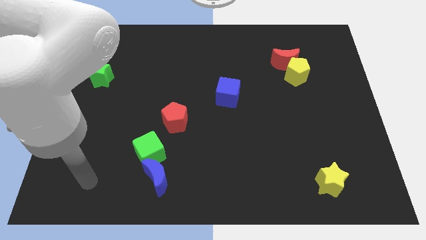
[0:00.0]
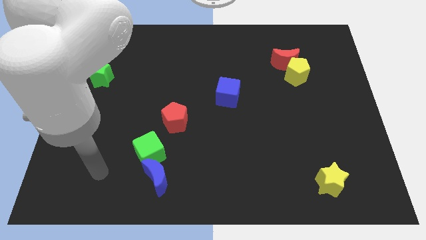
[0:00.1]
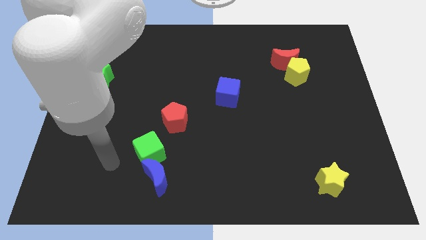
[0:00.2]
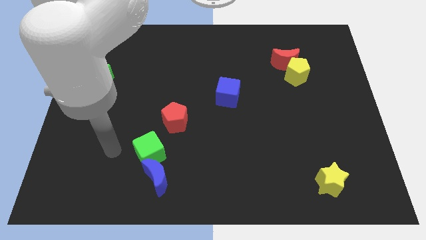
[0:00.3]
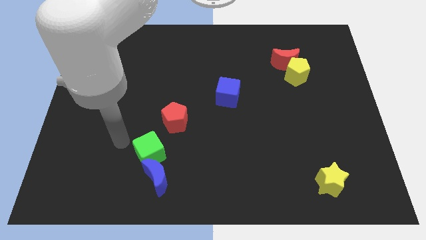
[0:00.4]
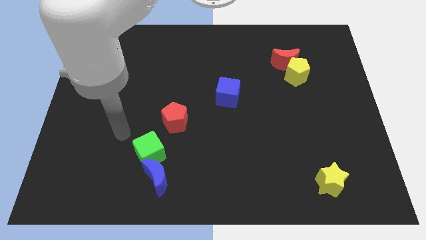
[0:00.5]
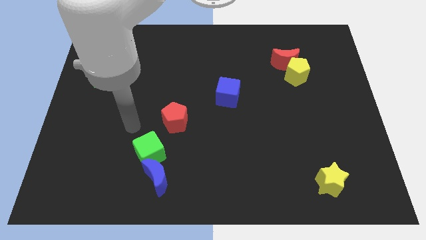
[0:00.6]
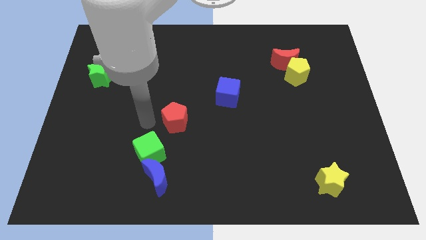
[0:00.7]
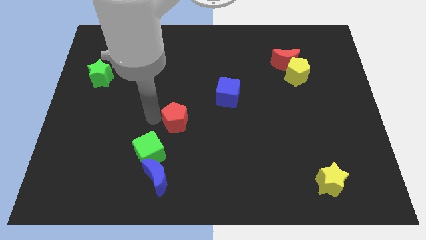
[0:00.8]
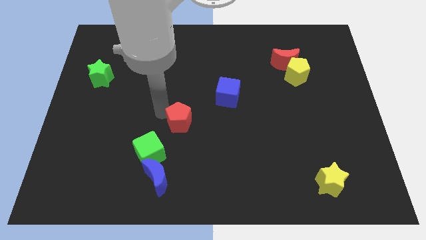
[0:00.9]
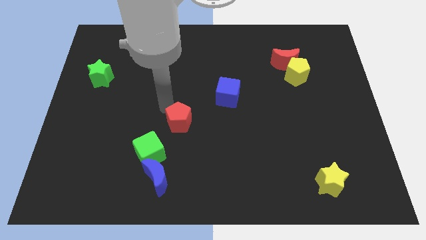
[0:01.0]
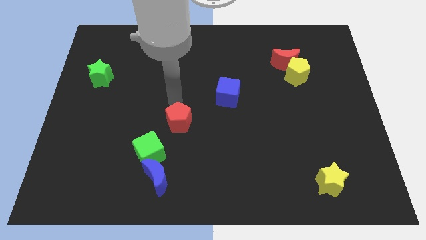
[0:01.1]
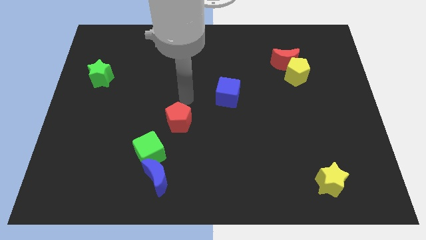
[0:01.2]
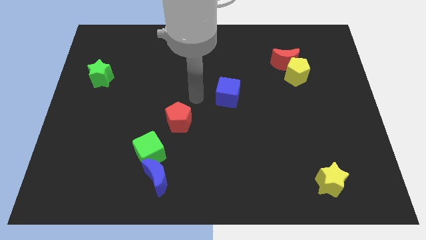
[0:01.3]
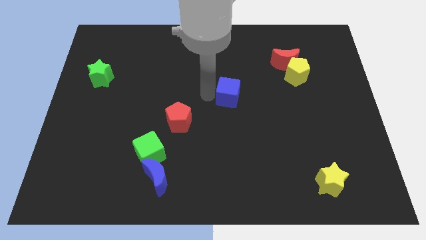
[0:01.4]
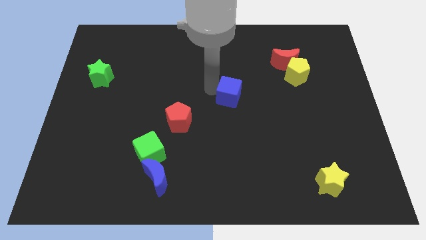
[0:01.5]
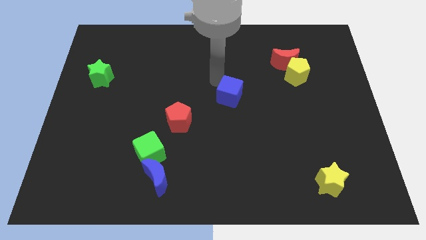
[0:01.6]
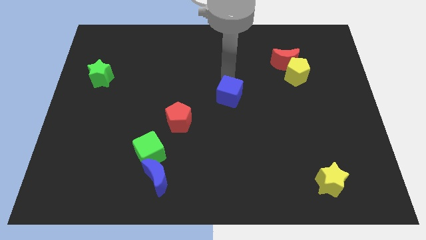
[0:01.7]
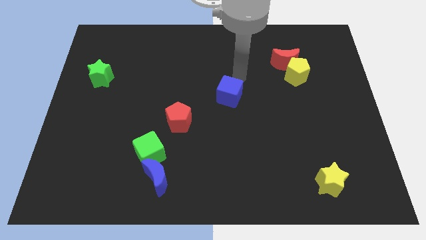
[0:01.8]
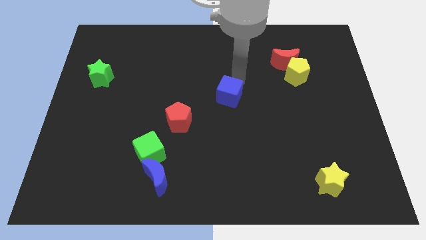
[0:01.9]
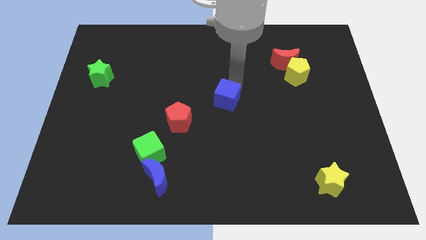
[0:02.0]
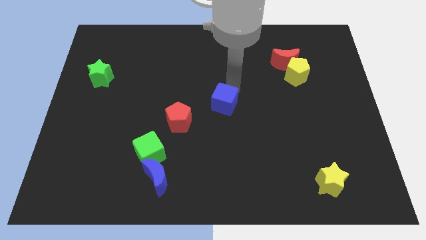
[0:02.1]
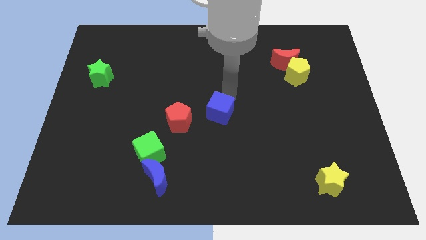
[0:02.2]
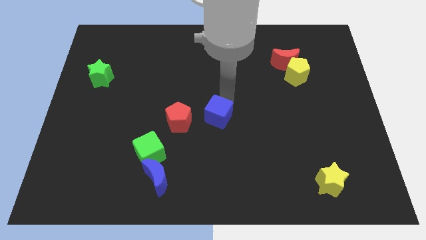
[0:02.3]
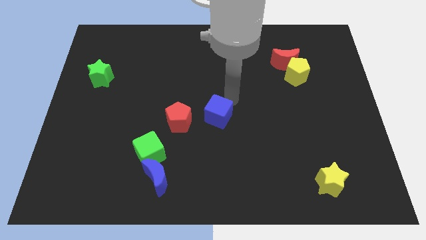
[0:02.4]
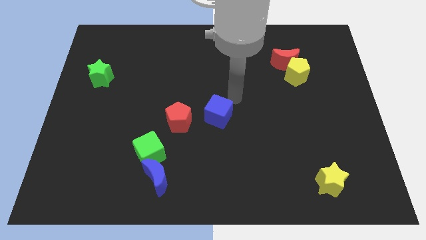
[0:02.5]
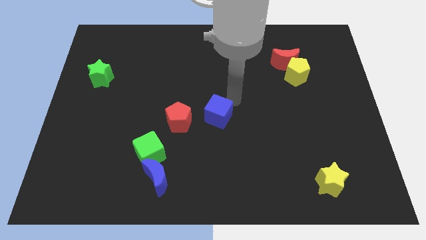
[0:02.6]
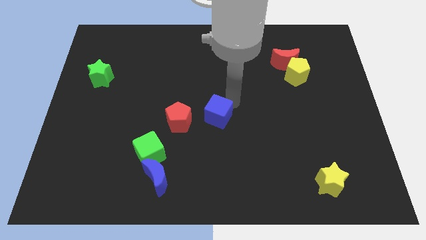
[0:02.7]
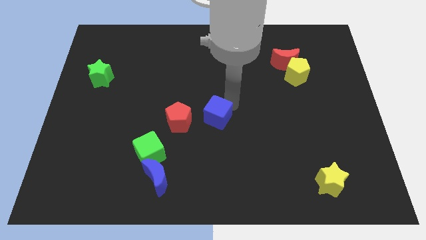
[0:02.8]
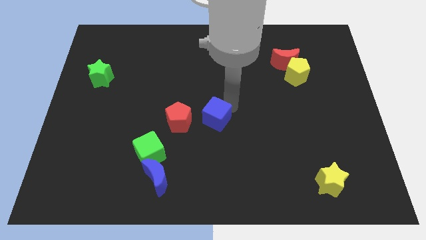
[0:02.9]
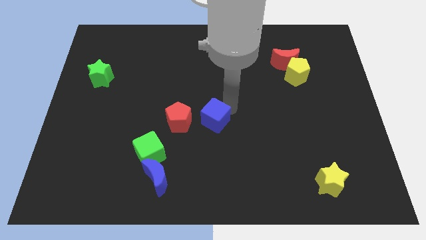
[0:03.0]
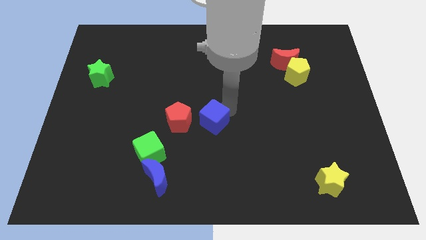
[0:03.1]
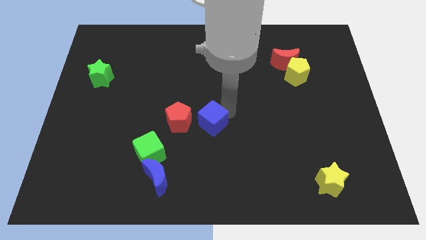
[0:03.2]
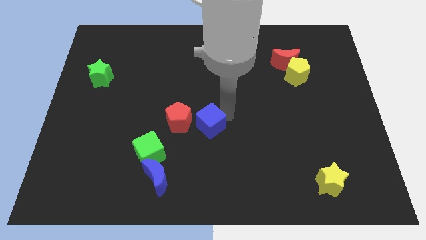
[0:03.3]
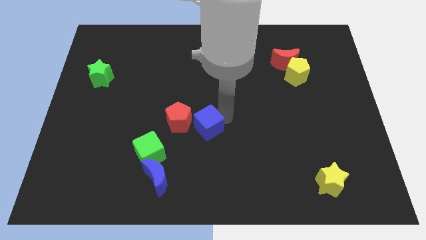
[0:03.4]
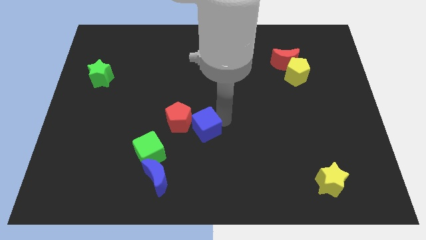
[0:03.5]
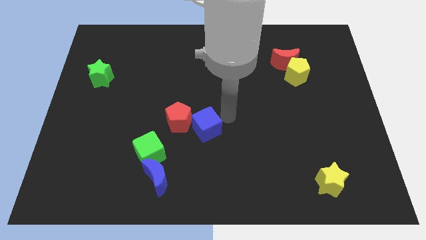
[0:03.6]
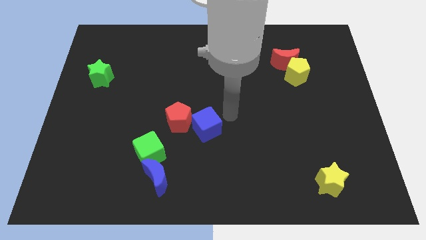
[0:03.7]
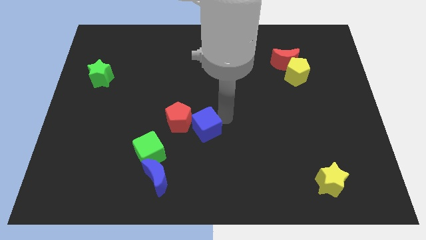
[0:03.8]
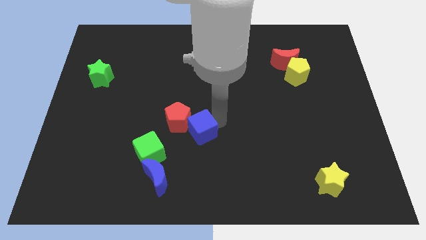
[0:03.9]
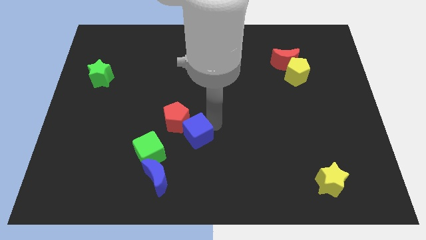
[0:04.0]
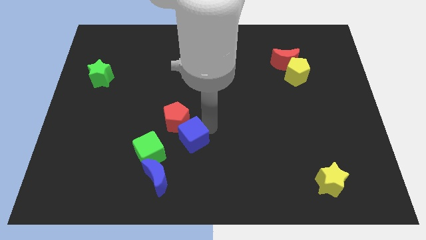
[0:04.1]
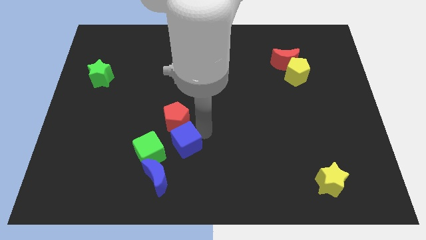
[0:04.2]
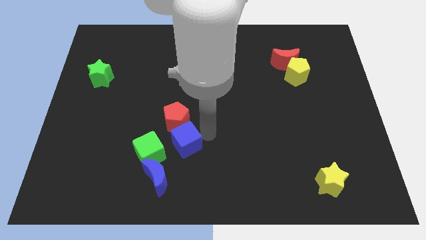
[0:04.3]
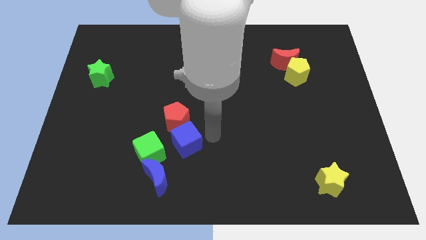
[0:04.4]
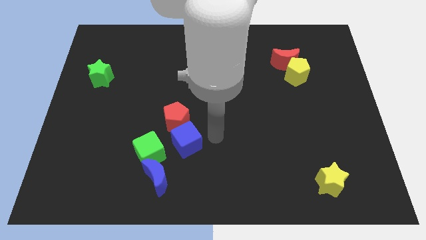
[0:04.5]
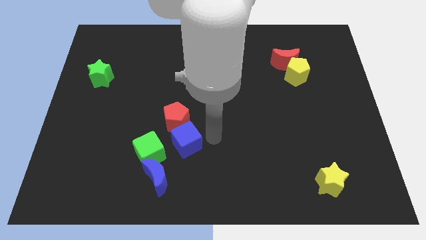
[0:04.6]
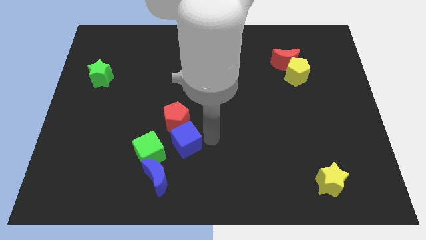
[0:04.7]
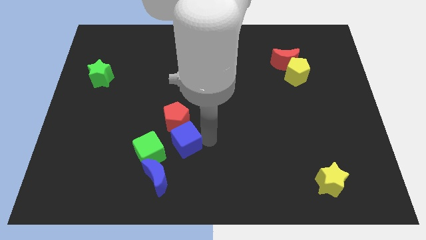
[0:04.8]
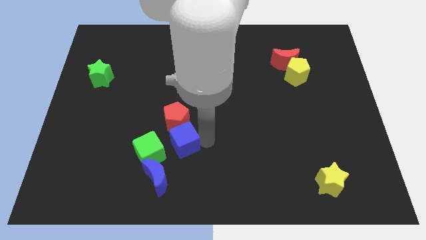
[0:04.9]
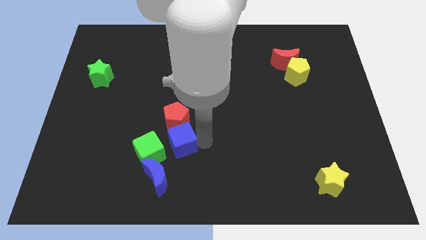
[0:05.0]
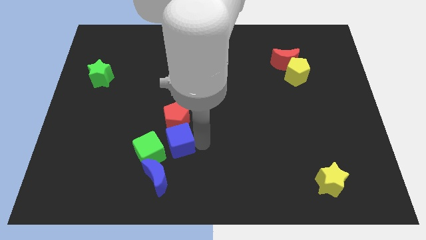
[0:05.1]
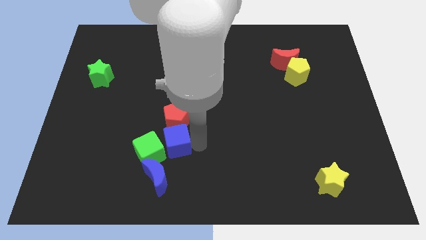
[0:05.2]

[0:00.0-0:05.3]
push the blue cube close to the green cube

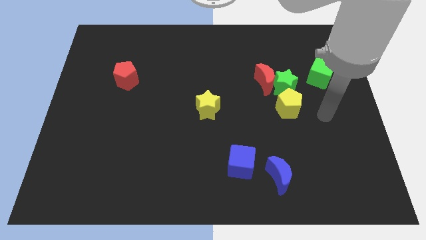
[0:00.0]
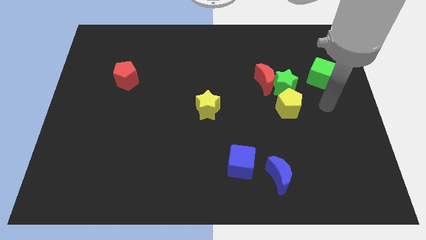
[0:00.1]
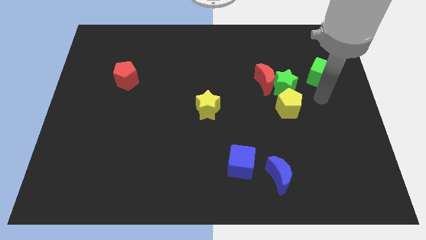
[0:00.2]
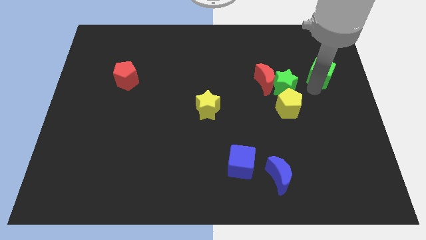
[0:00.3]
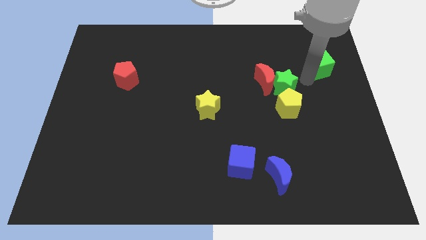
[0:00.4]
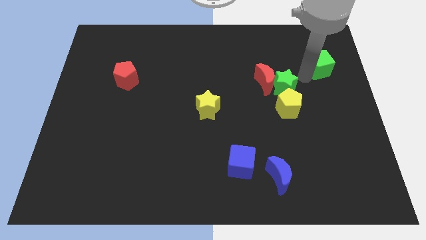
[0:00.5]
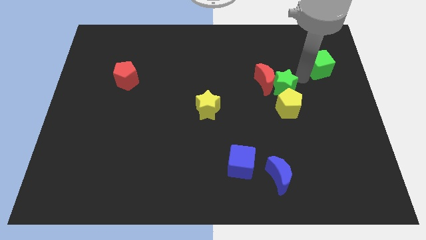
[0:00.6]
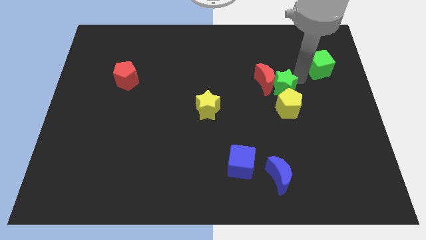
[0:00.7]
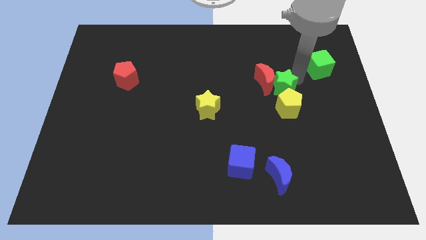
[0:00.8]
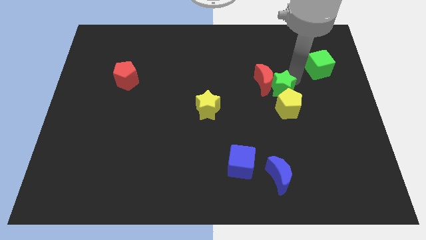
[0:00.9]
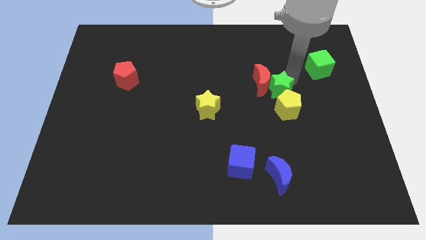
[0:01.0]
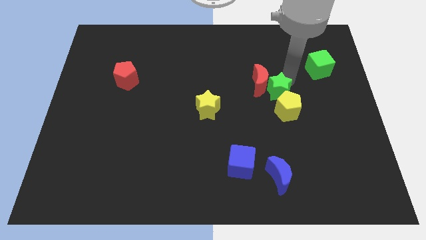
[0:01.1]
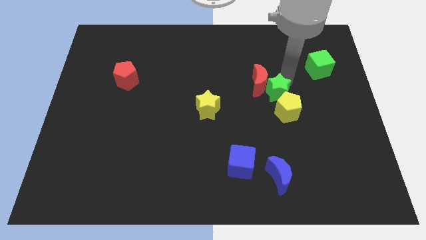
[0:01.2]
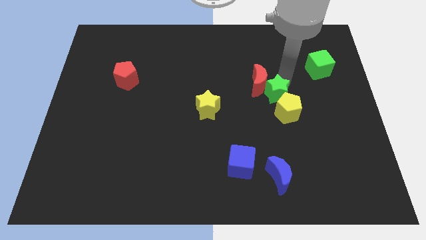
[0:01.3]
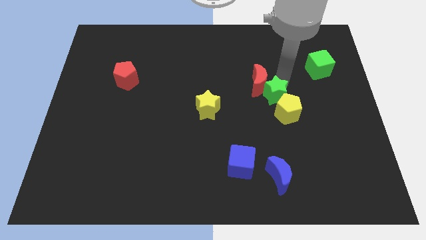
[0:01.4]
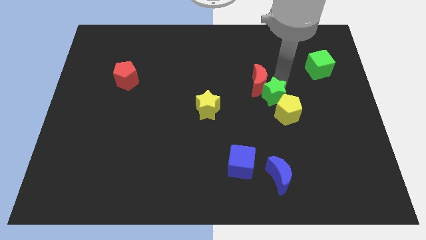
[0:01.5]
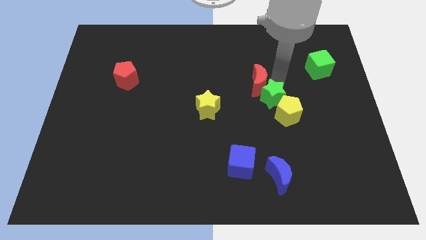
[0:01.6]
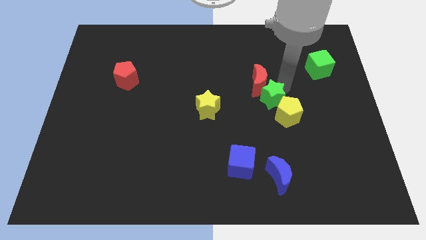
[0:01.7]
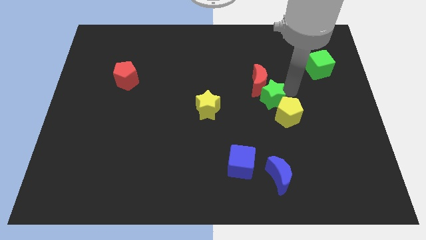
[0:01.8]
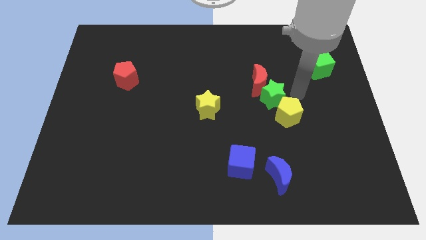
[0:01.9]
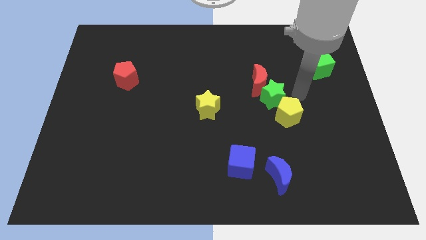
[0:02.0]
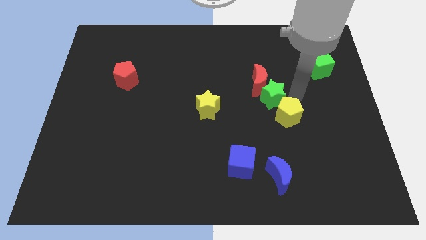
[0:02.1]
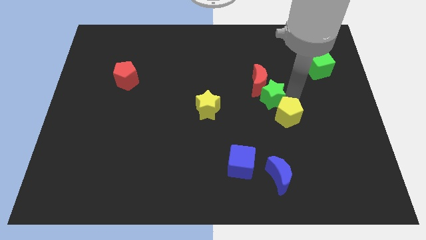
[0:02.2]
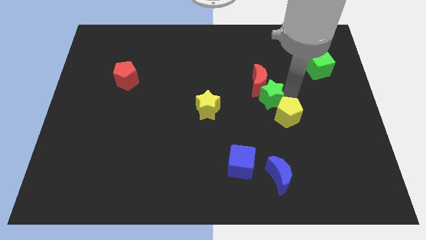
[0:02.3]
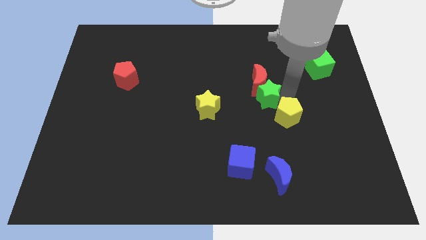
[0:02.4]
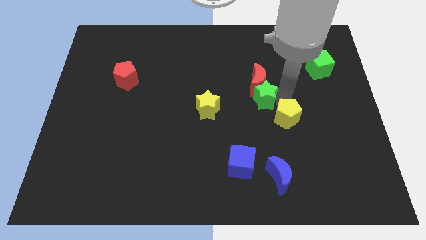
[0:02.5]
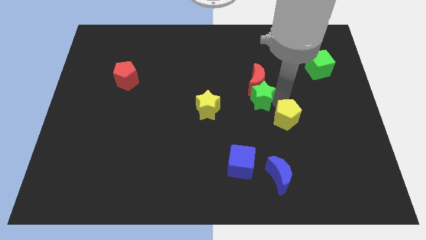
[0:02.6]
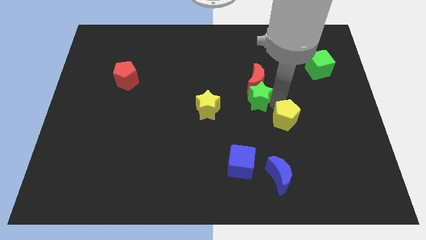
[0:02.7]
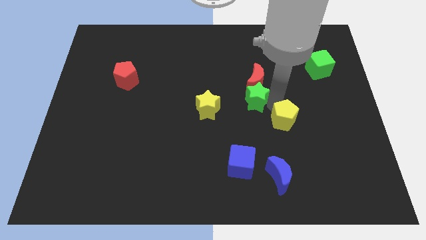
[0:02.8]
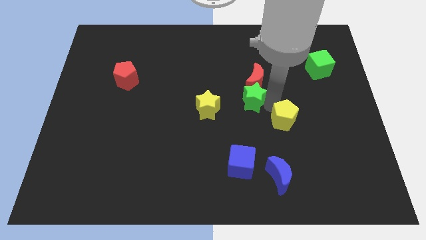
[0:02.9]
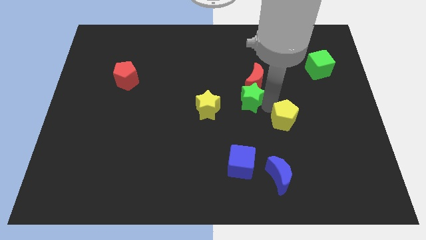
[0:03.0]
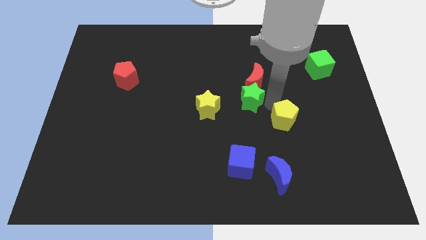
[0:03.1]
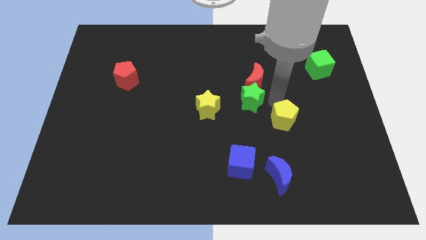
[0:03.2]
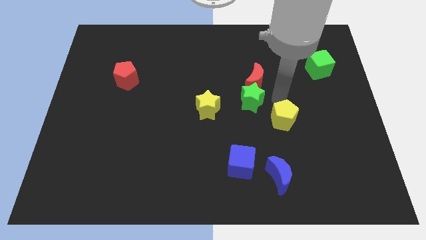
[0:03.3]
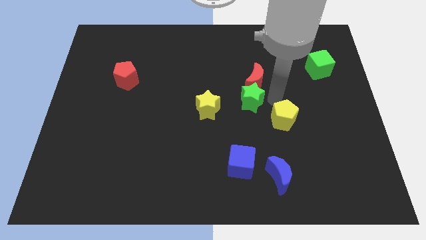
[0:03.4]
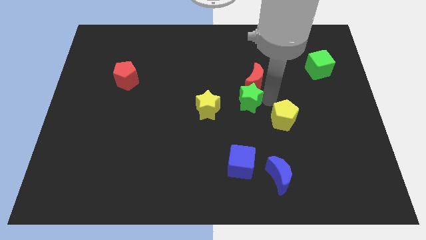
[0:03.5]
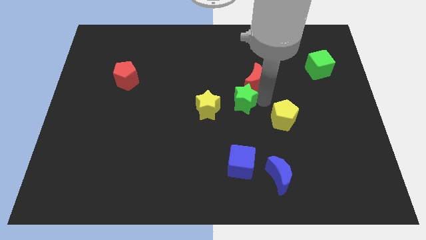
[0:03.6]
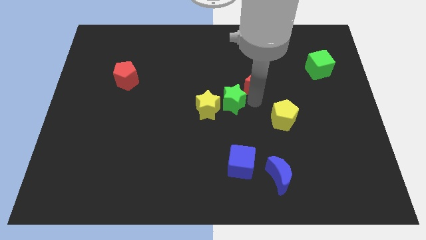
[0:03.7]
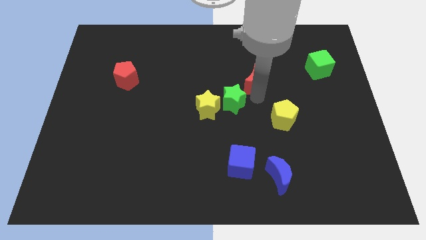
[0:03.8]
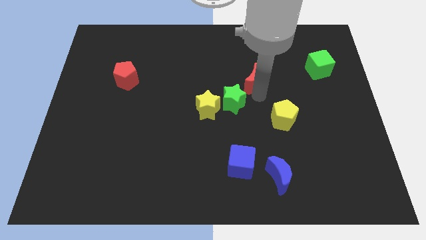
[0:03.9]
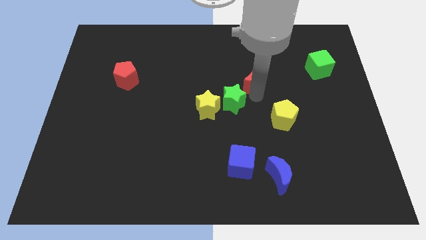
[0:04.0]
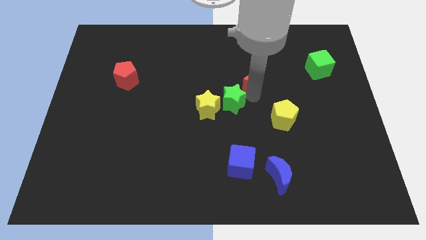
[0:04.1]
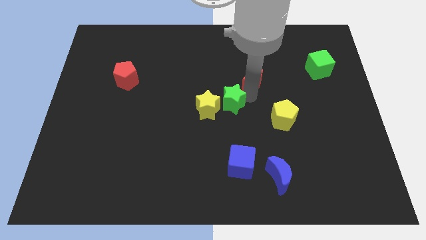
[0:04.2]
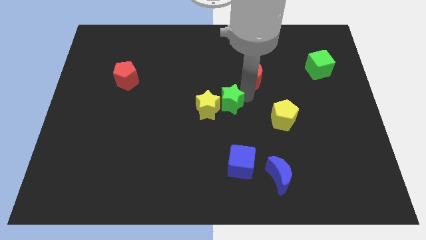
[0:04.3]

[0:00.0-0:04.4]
move the green star close to the yellow star
